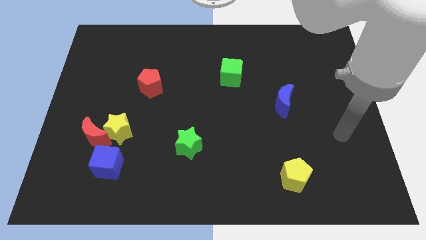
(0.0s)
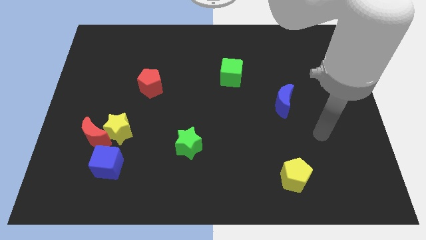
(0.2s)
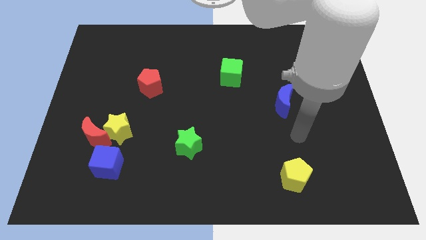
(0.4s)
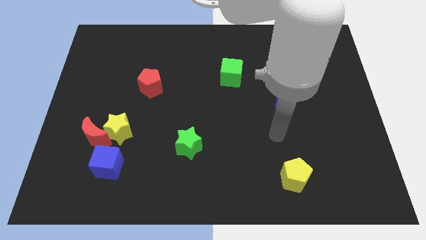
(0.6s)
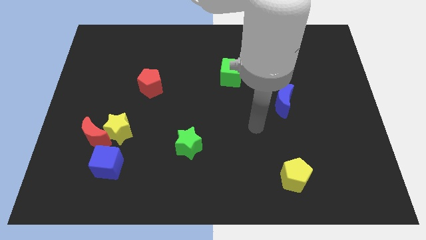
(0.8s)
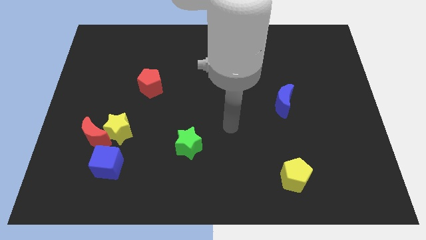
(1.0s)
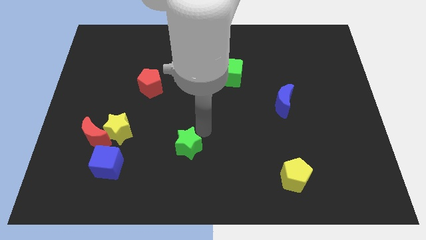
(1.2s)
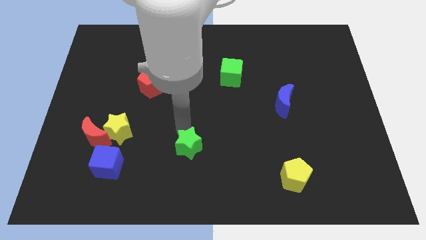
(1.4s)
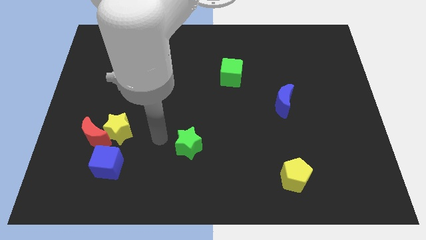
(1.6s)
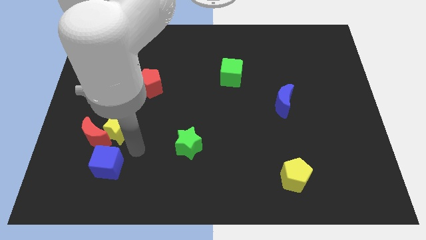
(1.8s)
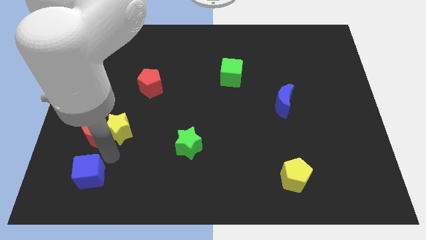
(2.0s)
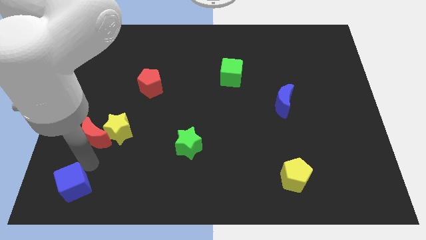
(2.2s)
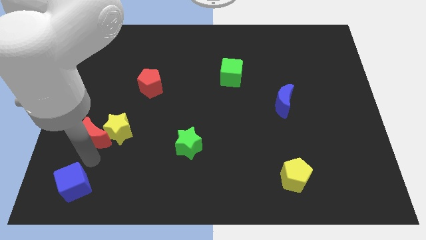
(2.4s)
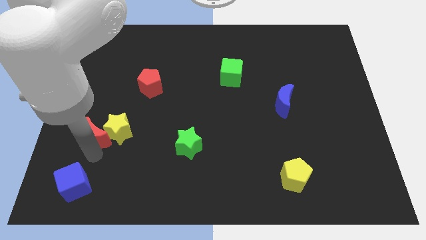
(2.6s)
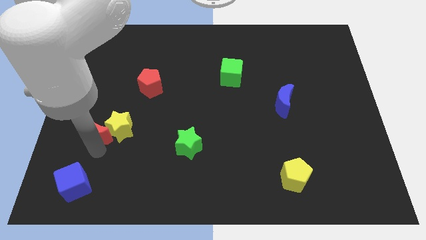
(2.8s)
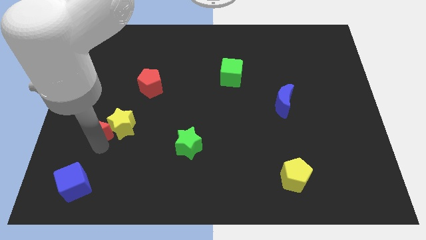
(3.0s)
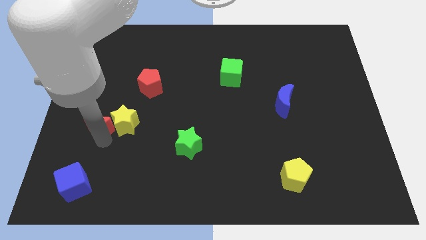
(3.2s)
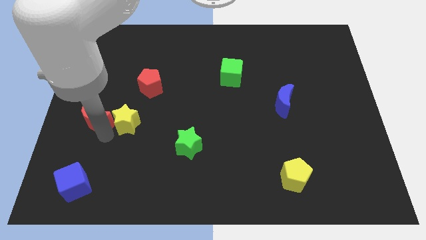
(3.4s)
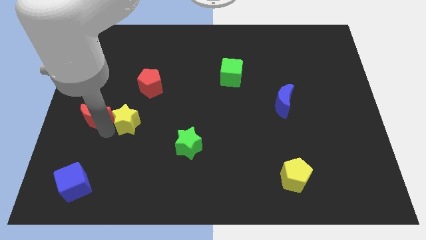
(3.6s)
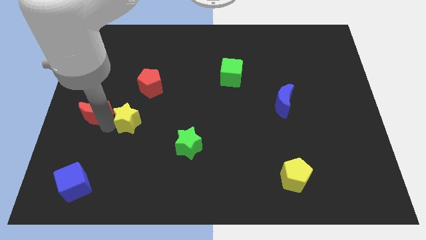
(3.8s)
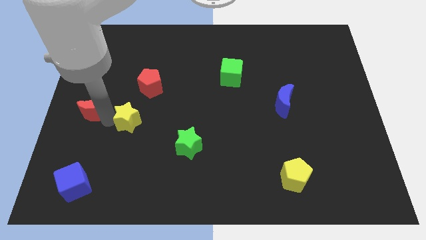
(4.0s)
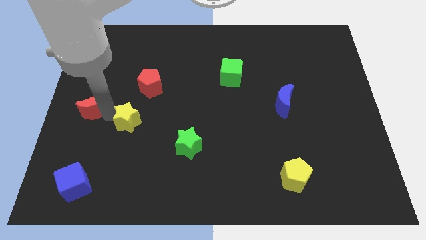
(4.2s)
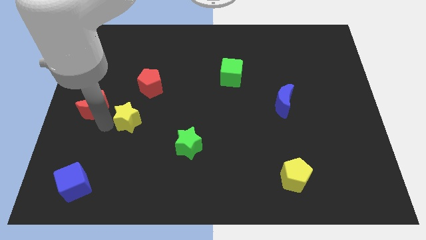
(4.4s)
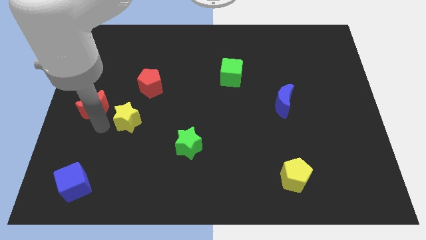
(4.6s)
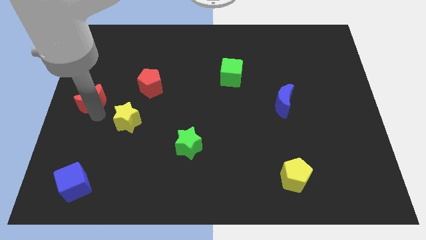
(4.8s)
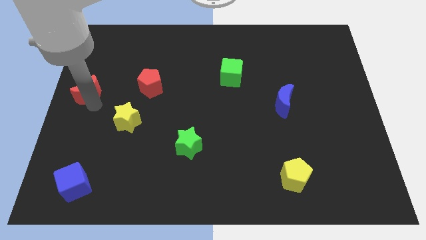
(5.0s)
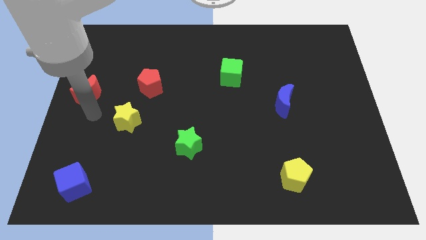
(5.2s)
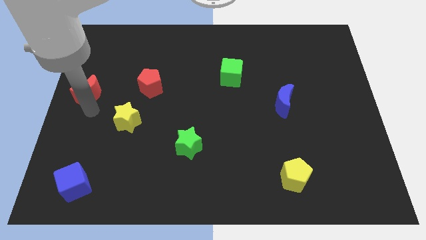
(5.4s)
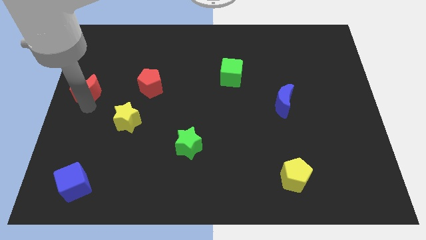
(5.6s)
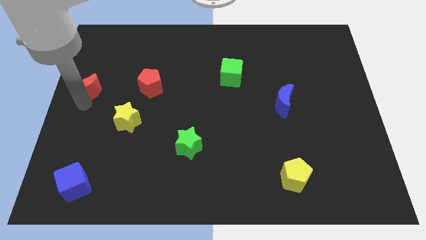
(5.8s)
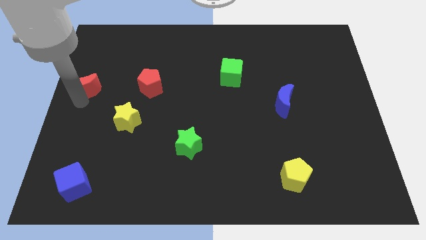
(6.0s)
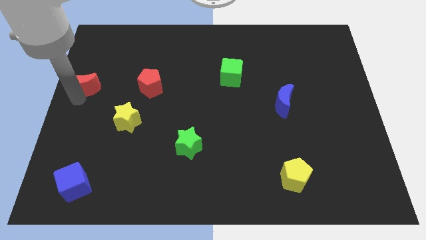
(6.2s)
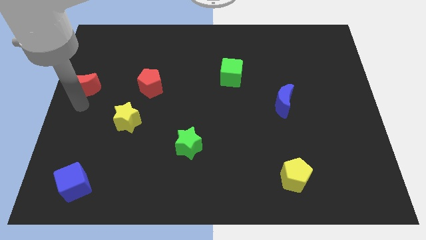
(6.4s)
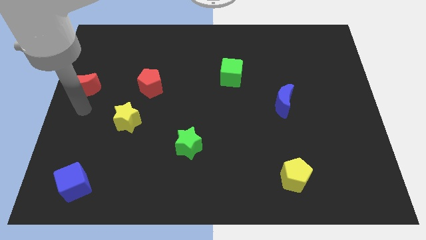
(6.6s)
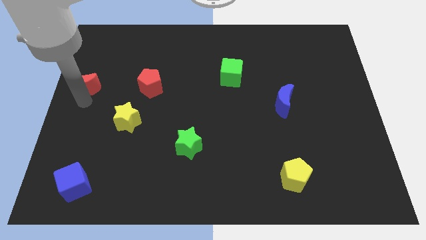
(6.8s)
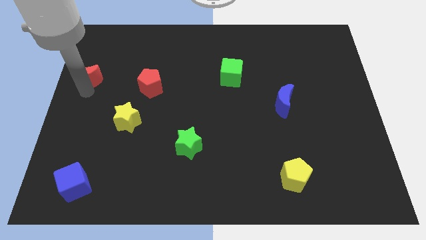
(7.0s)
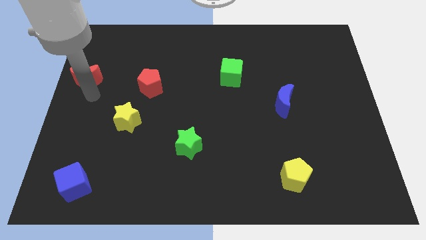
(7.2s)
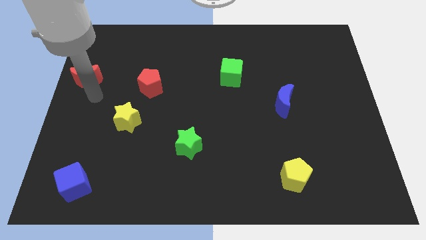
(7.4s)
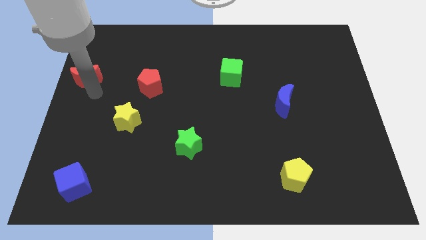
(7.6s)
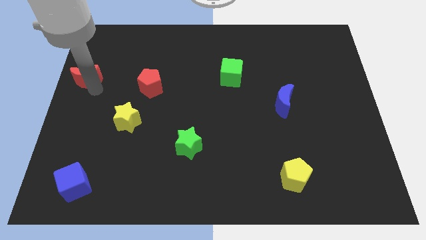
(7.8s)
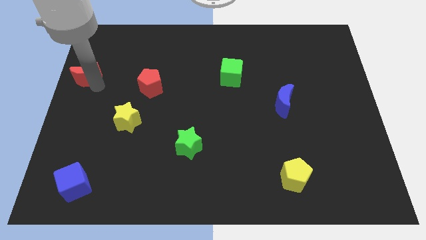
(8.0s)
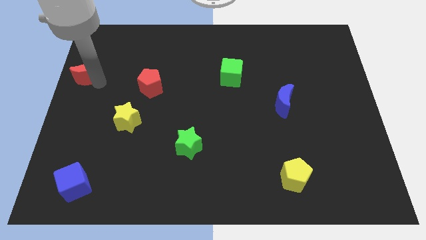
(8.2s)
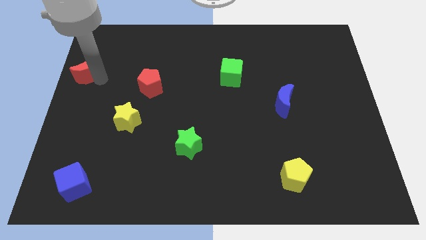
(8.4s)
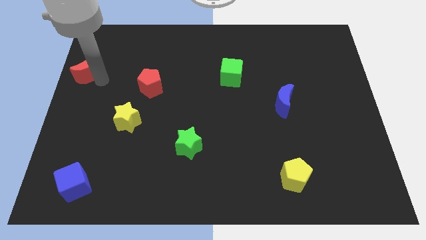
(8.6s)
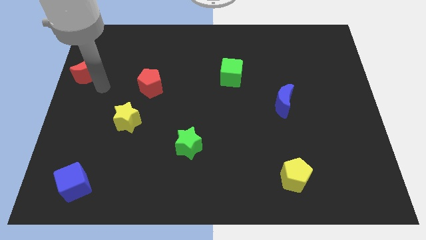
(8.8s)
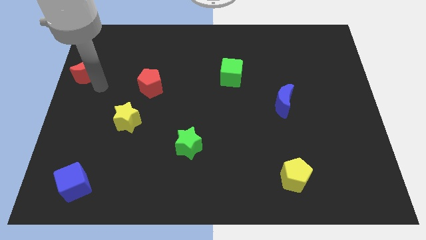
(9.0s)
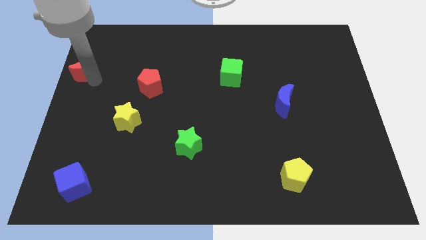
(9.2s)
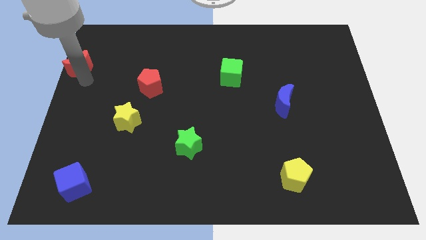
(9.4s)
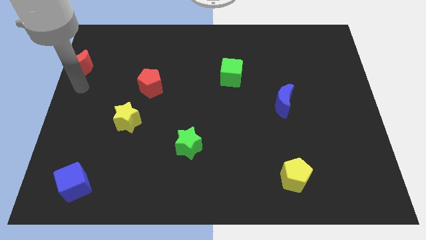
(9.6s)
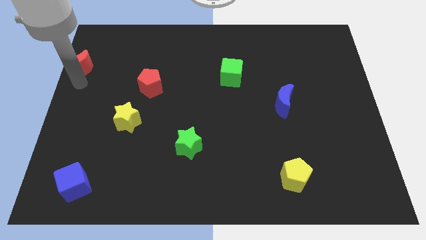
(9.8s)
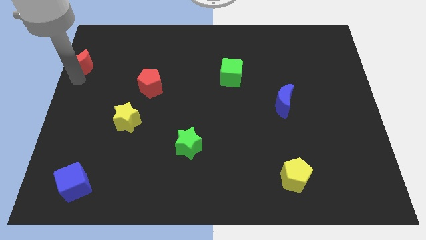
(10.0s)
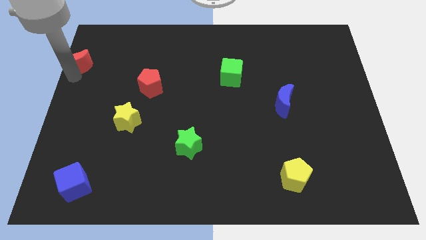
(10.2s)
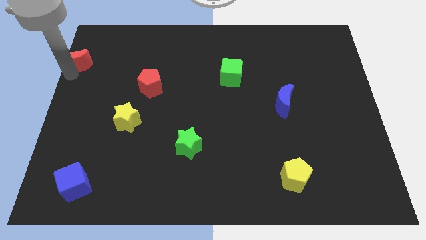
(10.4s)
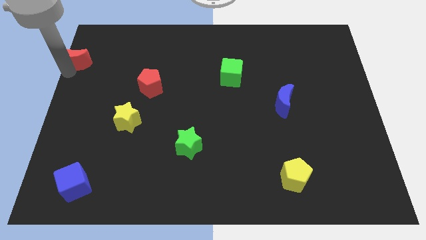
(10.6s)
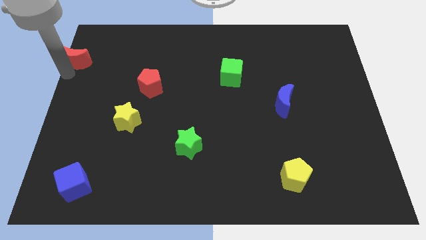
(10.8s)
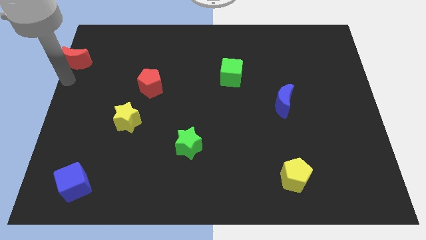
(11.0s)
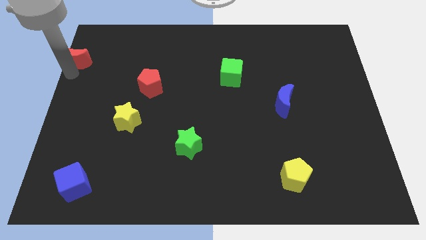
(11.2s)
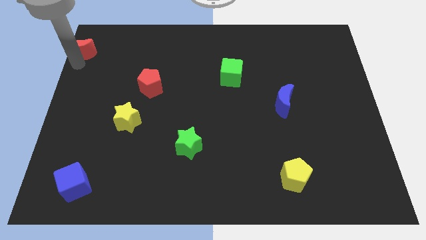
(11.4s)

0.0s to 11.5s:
push the red moon to the top left

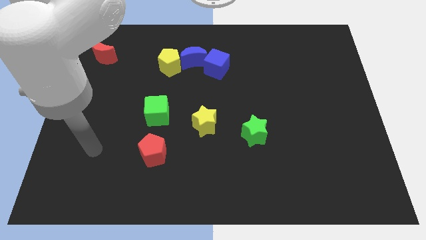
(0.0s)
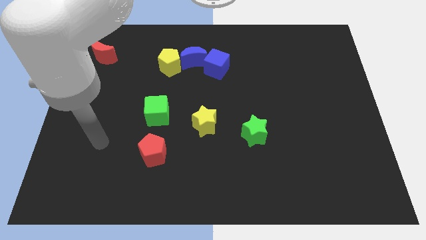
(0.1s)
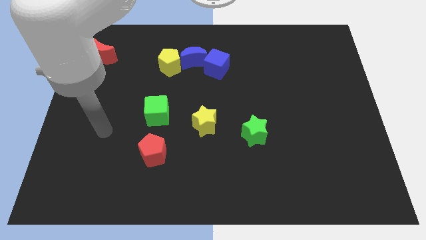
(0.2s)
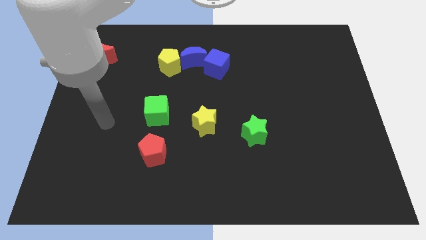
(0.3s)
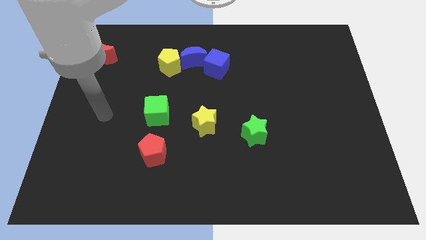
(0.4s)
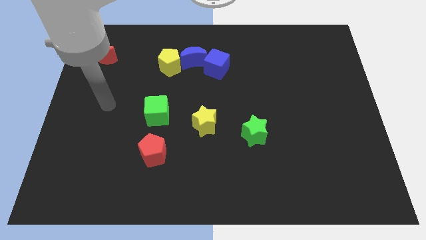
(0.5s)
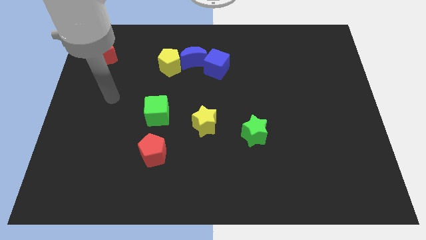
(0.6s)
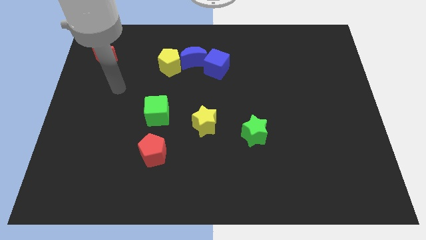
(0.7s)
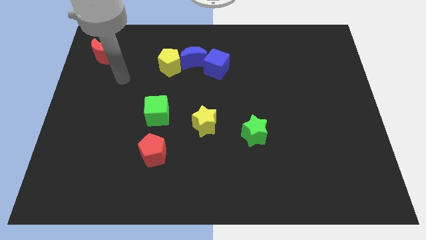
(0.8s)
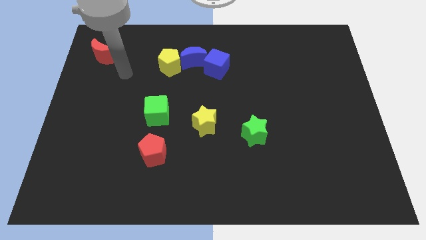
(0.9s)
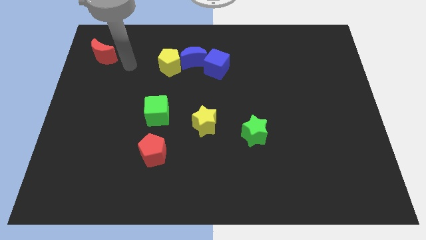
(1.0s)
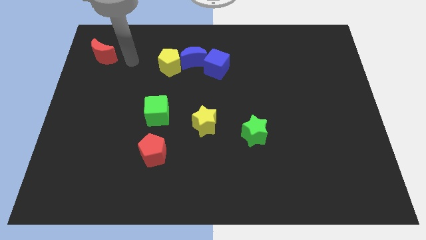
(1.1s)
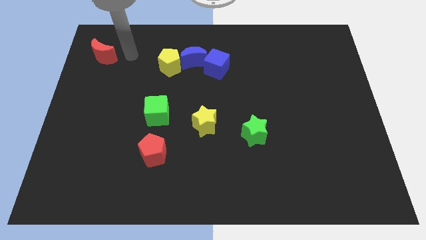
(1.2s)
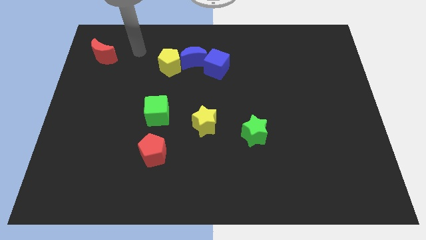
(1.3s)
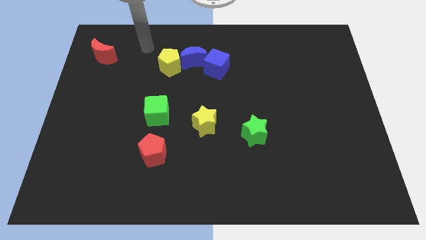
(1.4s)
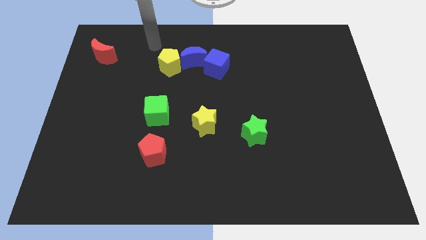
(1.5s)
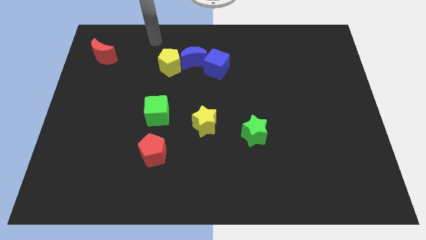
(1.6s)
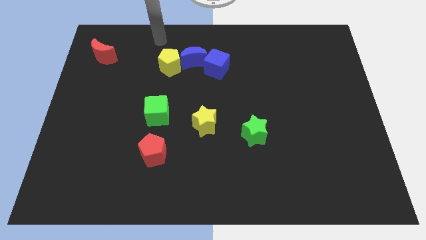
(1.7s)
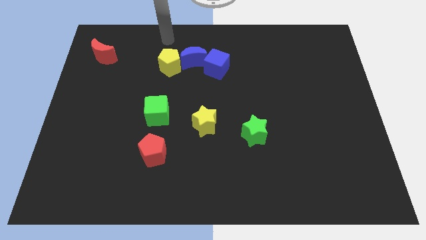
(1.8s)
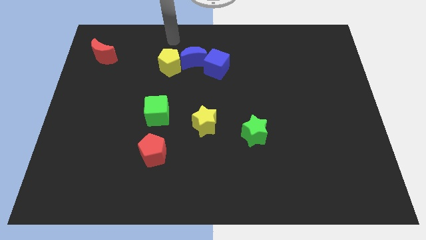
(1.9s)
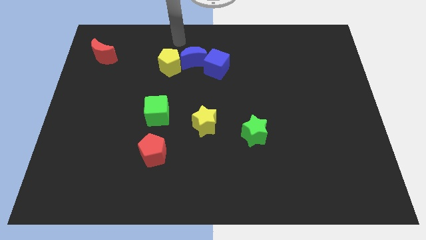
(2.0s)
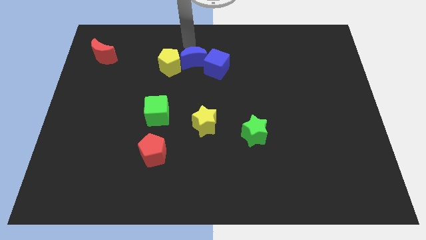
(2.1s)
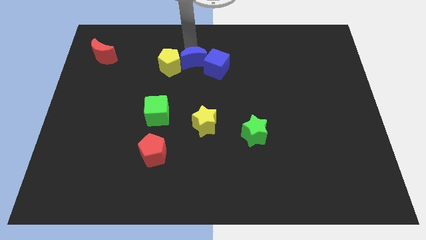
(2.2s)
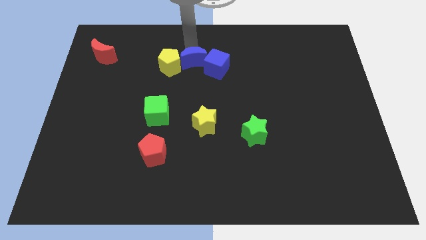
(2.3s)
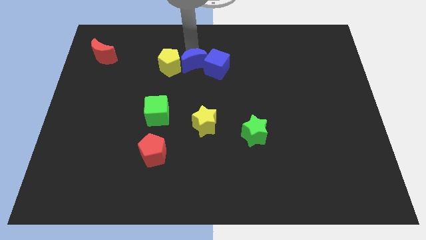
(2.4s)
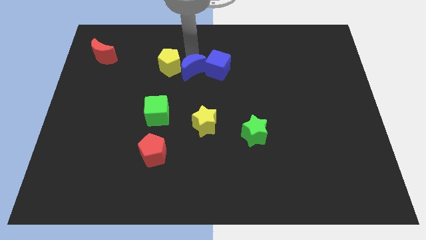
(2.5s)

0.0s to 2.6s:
slide the blue moon to the middle of the board
